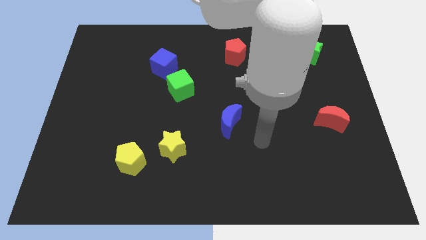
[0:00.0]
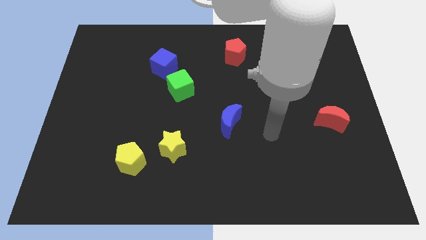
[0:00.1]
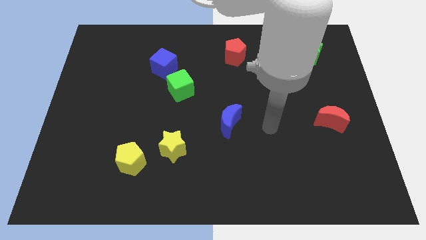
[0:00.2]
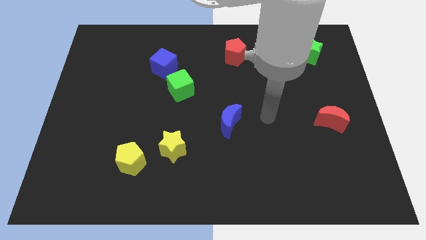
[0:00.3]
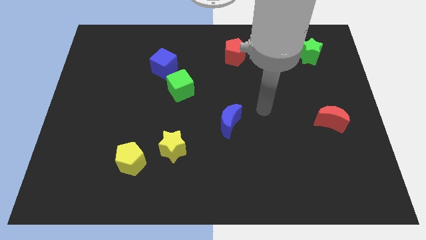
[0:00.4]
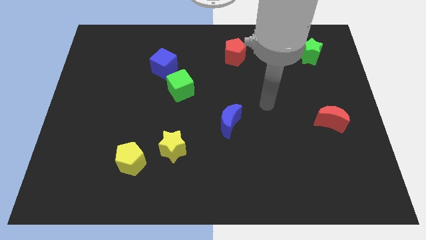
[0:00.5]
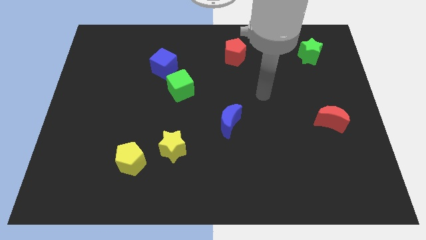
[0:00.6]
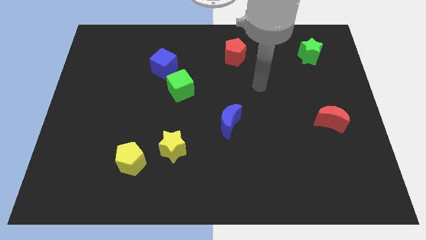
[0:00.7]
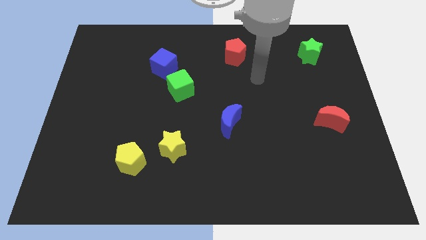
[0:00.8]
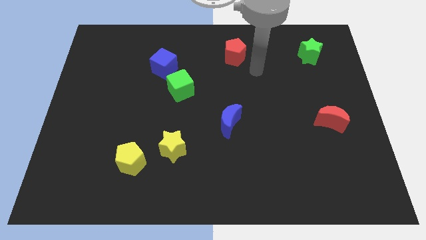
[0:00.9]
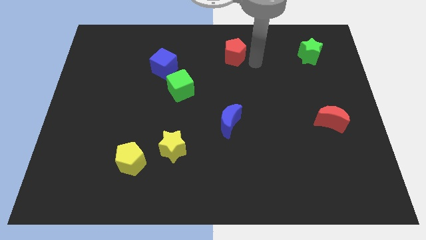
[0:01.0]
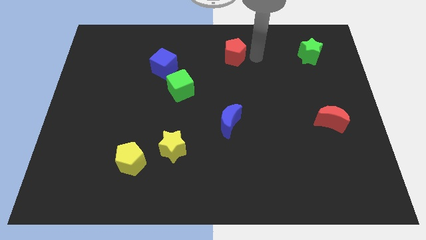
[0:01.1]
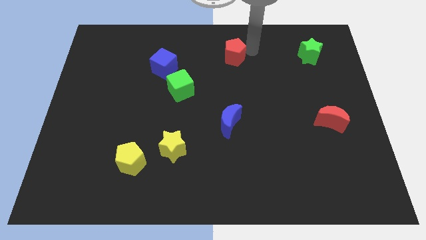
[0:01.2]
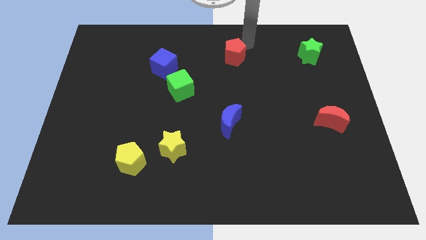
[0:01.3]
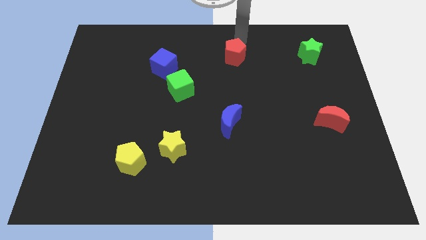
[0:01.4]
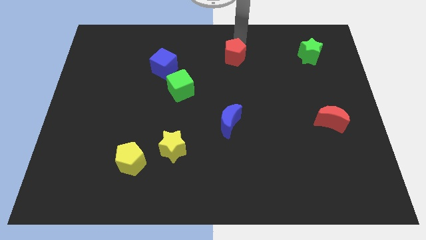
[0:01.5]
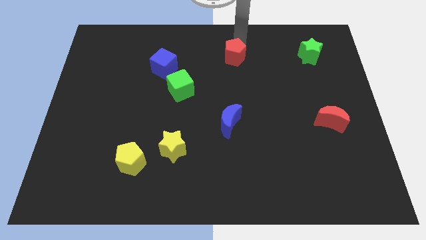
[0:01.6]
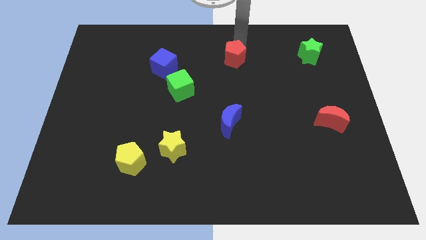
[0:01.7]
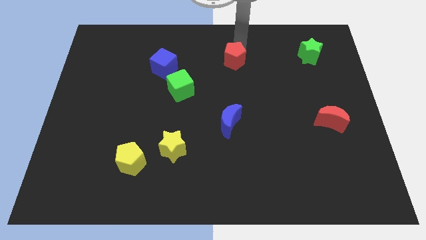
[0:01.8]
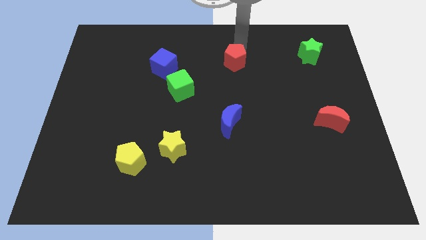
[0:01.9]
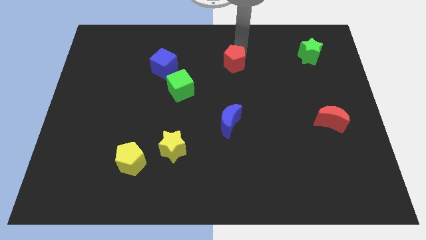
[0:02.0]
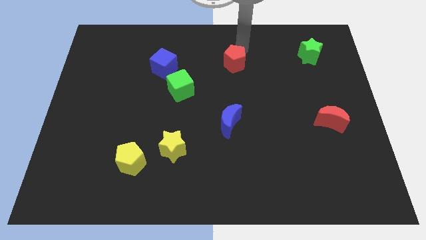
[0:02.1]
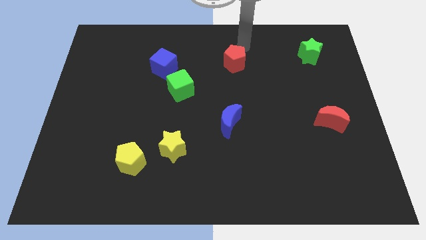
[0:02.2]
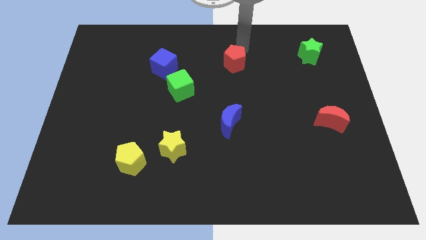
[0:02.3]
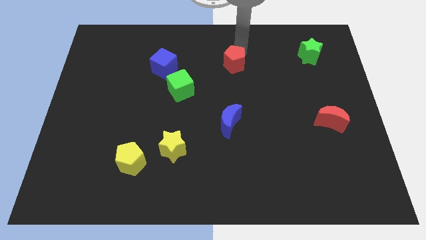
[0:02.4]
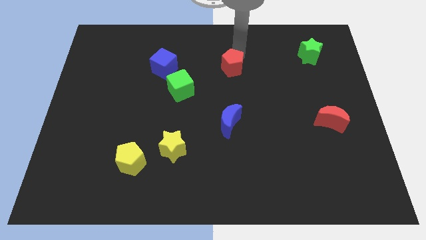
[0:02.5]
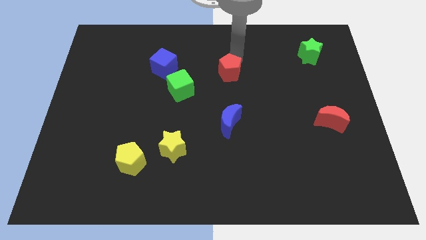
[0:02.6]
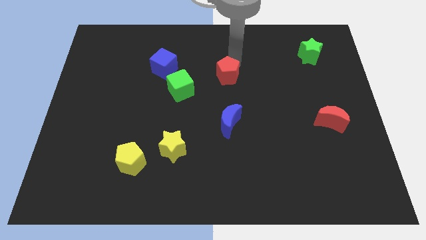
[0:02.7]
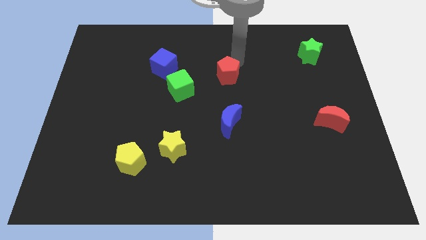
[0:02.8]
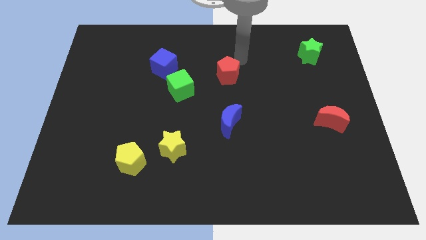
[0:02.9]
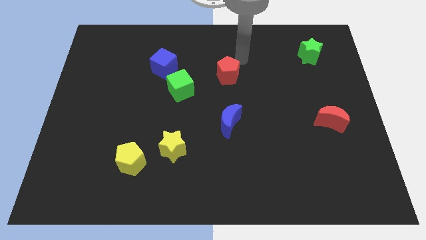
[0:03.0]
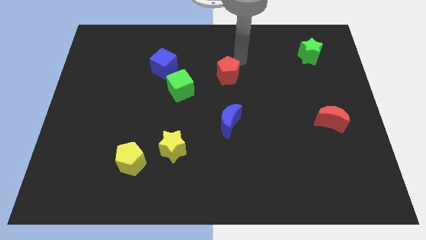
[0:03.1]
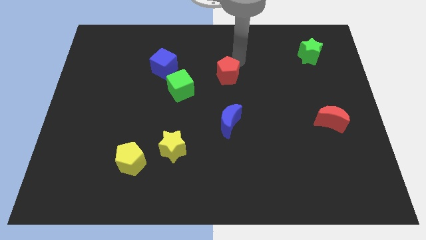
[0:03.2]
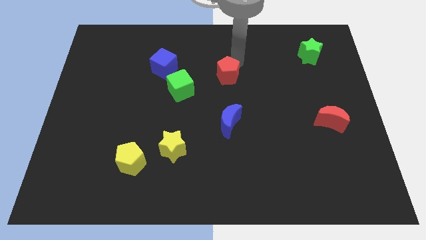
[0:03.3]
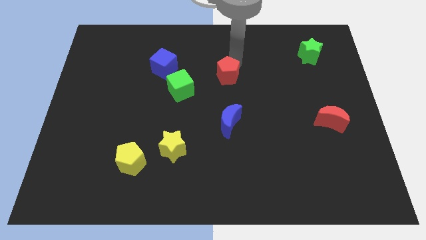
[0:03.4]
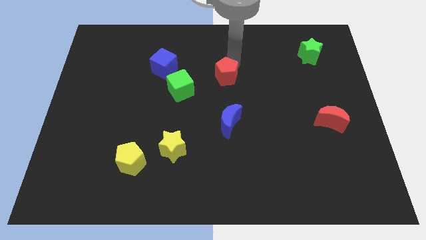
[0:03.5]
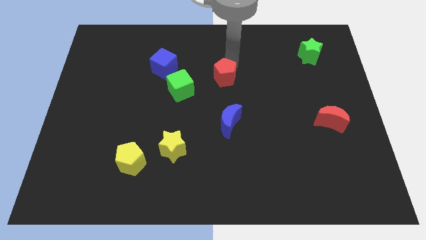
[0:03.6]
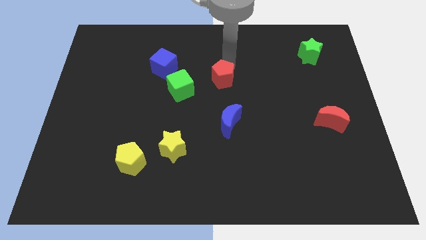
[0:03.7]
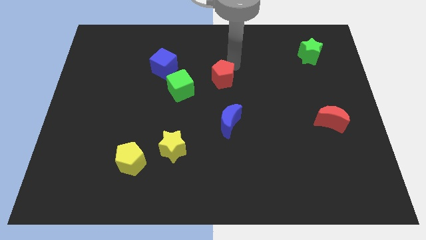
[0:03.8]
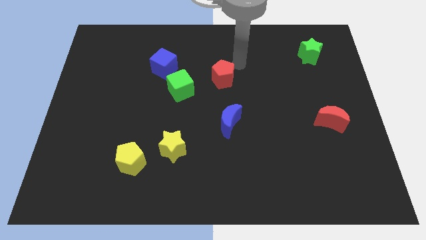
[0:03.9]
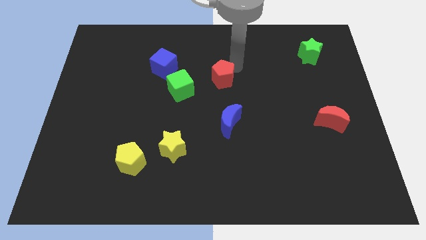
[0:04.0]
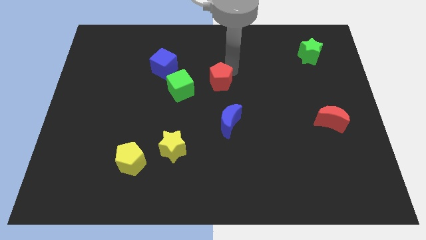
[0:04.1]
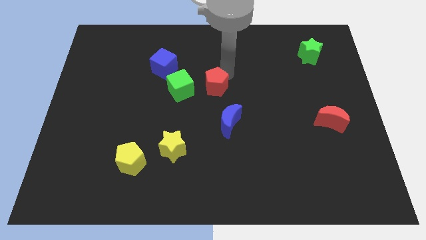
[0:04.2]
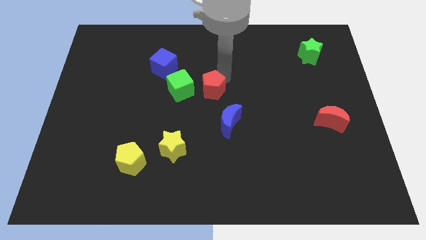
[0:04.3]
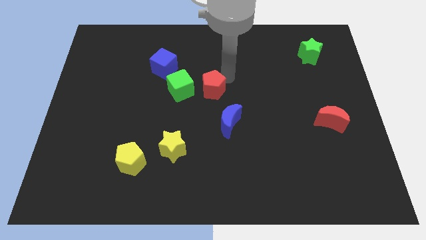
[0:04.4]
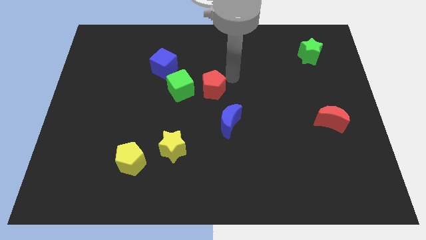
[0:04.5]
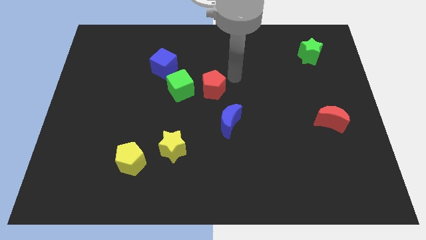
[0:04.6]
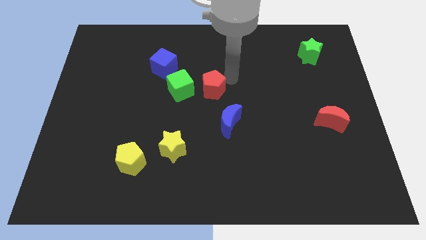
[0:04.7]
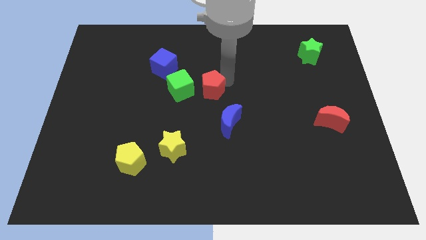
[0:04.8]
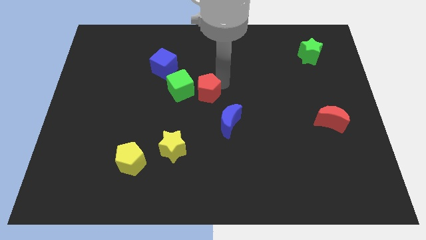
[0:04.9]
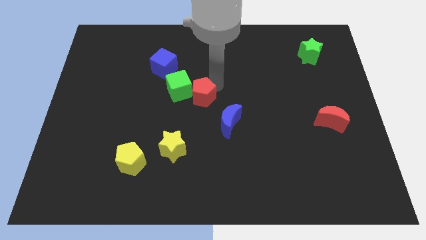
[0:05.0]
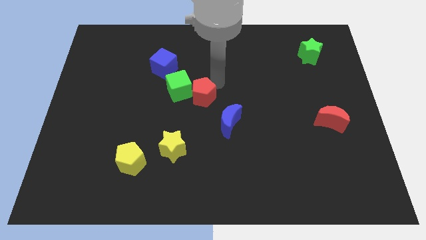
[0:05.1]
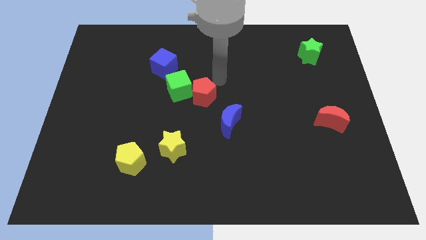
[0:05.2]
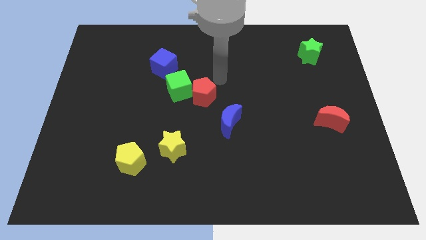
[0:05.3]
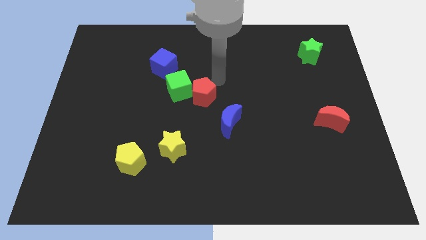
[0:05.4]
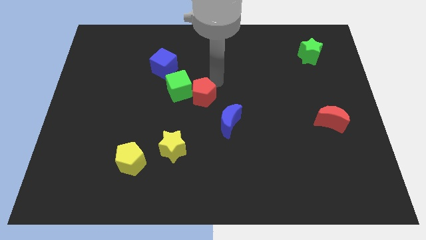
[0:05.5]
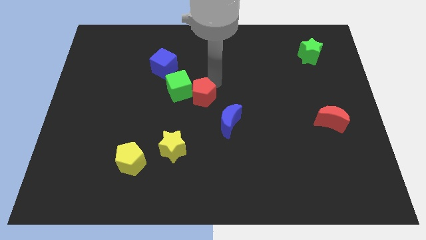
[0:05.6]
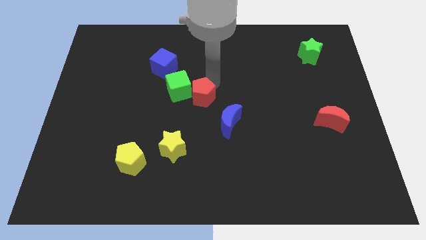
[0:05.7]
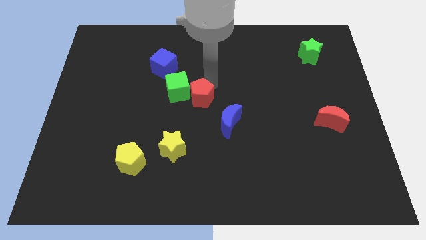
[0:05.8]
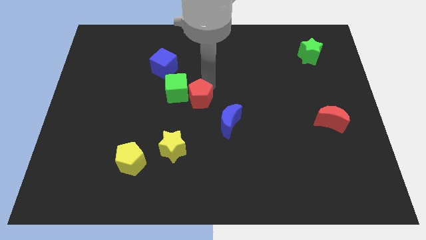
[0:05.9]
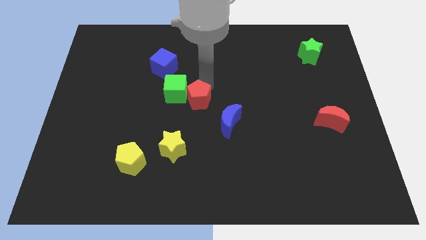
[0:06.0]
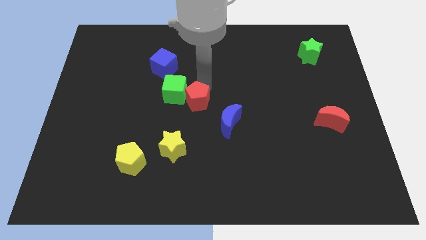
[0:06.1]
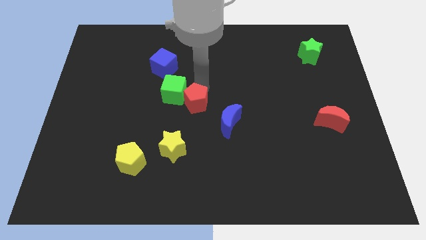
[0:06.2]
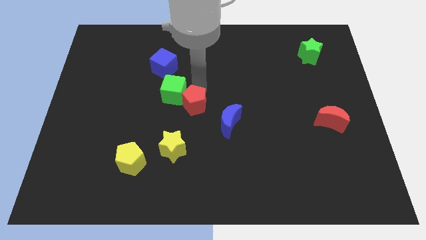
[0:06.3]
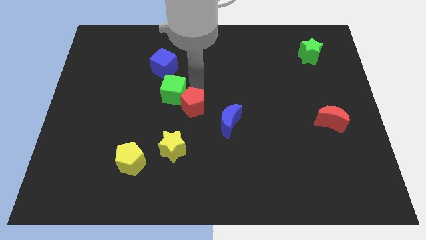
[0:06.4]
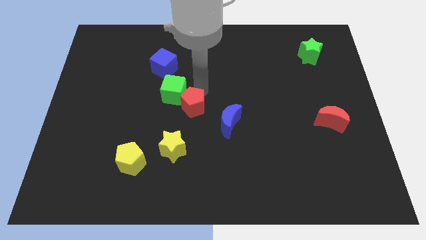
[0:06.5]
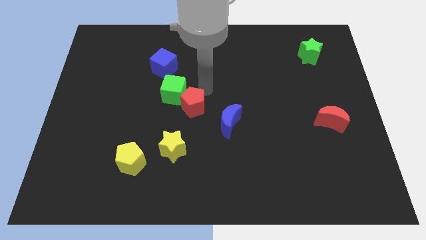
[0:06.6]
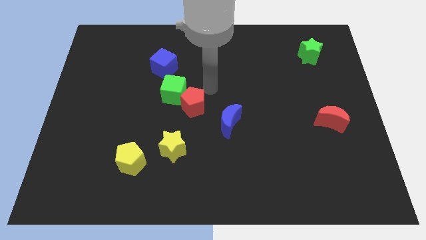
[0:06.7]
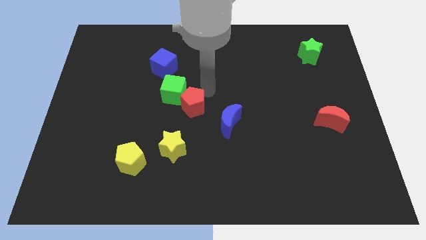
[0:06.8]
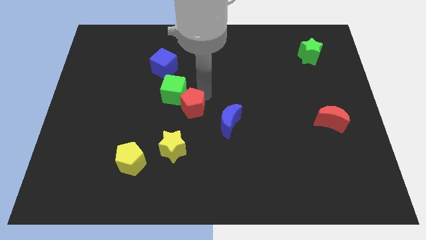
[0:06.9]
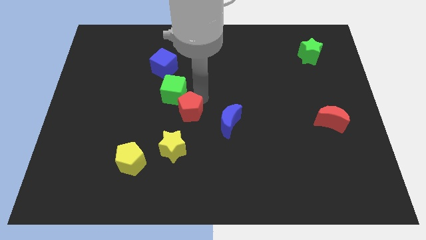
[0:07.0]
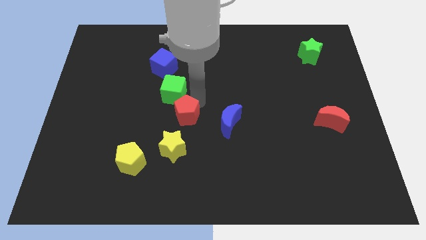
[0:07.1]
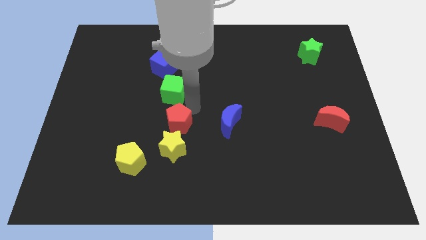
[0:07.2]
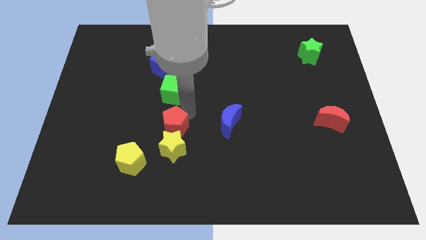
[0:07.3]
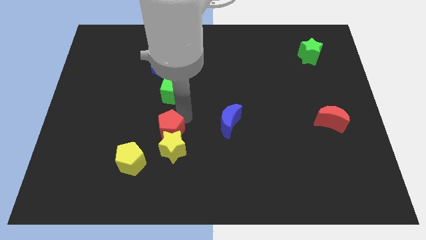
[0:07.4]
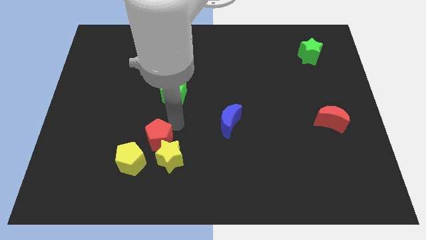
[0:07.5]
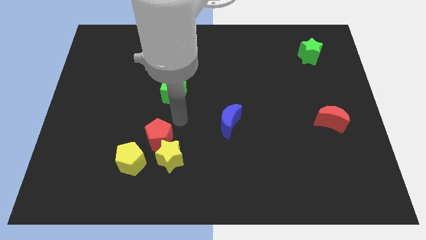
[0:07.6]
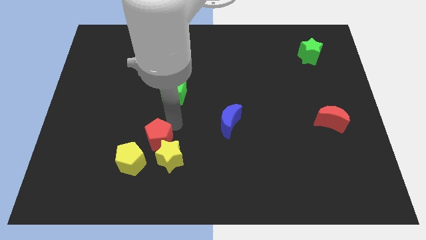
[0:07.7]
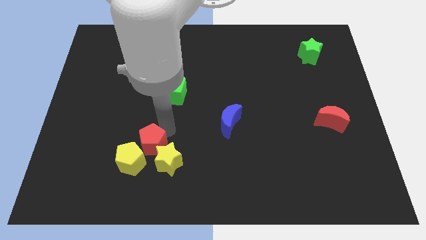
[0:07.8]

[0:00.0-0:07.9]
put the red pentagon to the yellow pentagon
